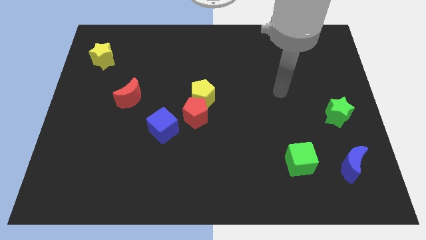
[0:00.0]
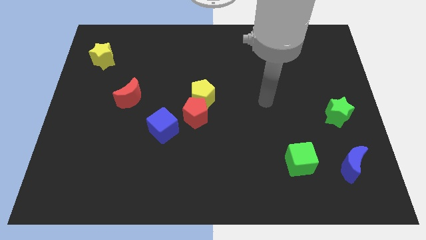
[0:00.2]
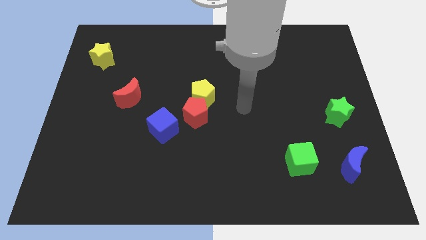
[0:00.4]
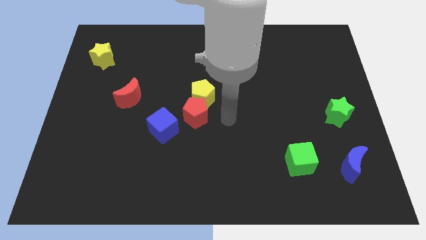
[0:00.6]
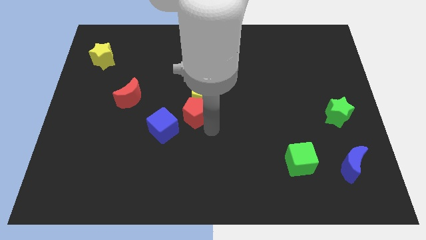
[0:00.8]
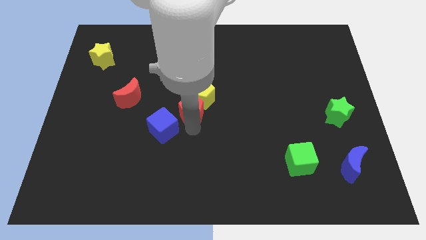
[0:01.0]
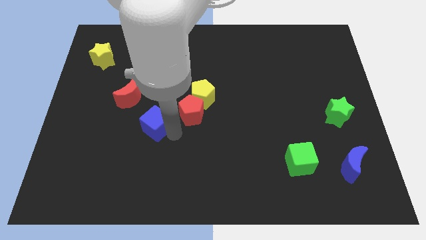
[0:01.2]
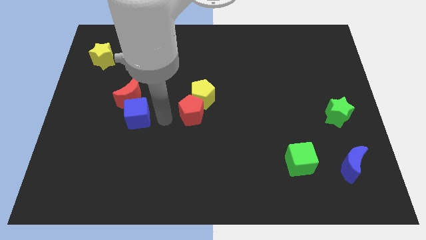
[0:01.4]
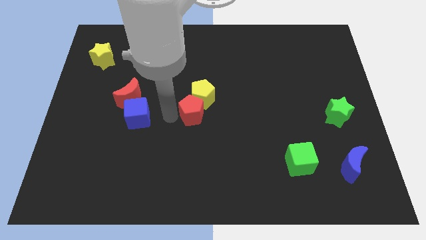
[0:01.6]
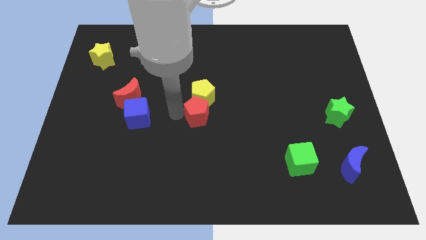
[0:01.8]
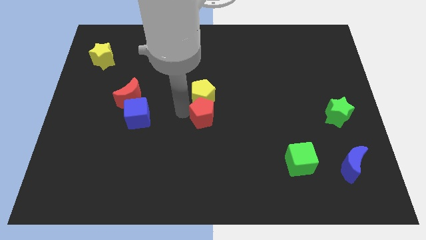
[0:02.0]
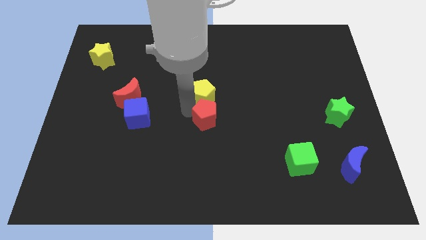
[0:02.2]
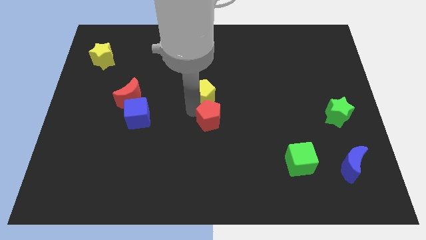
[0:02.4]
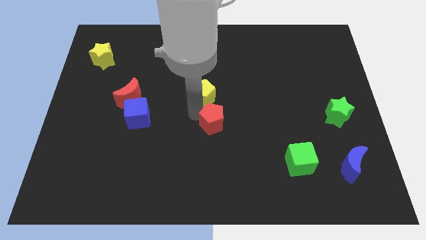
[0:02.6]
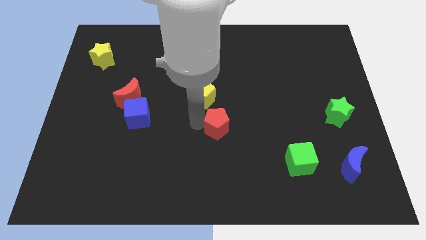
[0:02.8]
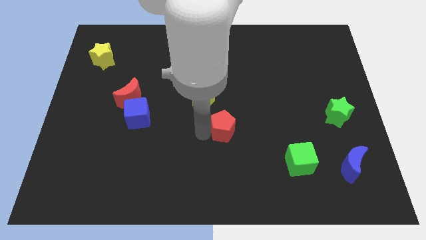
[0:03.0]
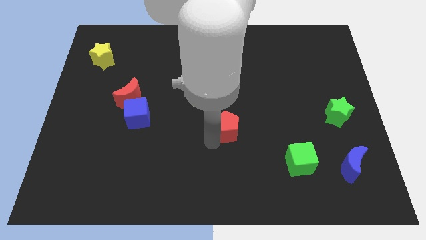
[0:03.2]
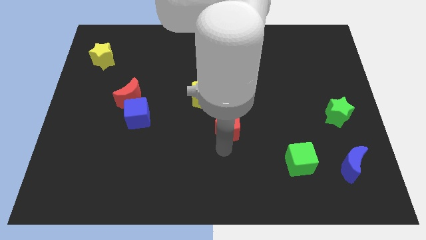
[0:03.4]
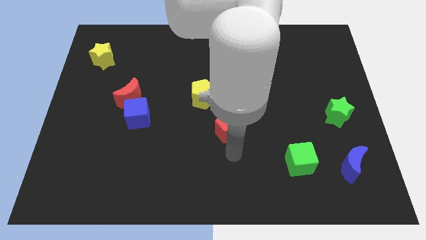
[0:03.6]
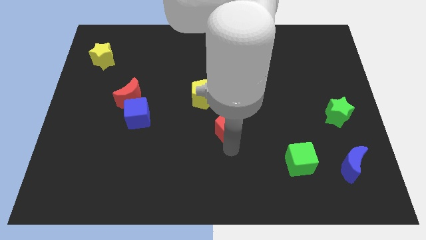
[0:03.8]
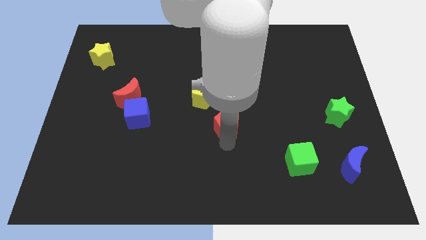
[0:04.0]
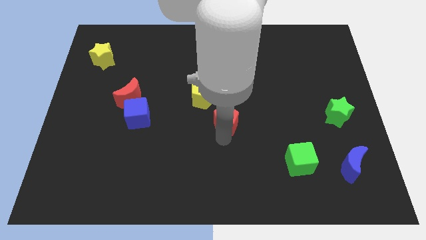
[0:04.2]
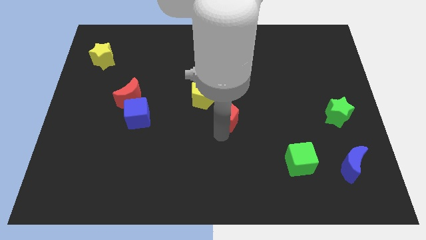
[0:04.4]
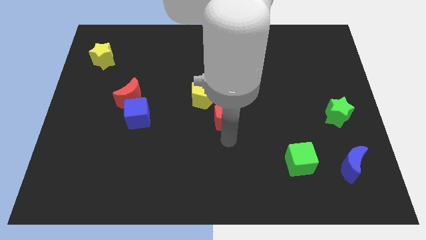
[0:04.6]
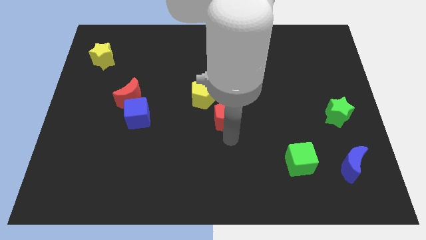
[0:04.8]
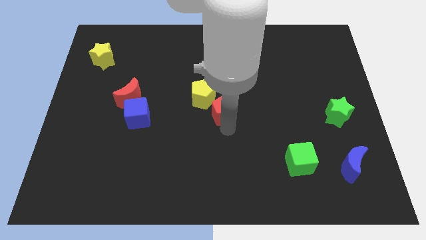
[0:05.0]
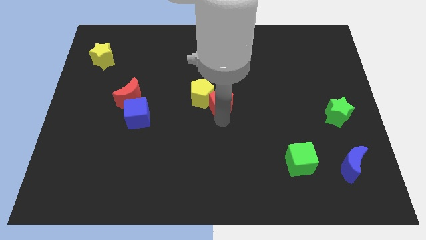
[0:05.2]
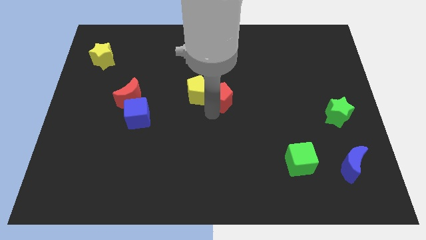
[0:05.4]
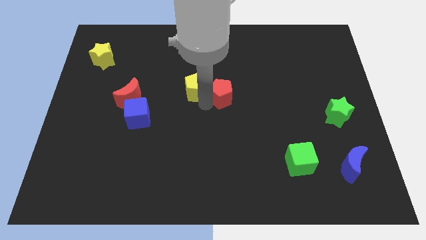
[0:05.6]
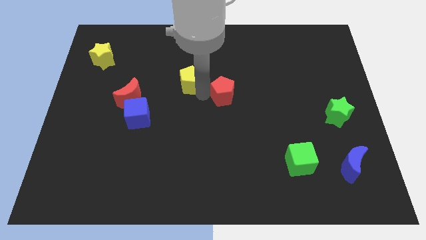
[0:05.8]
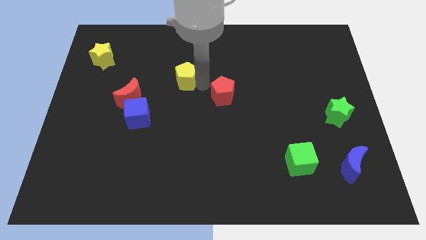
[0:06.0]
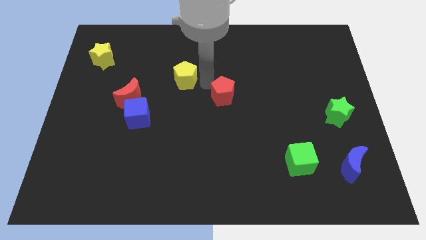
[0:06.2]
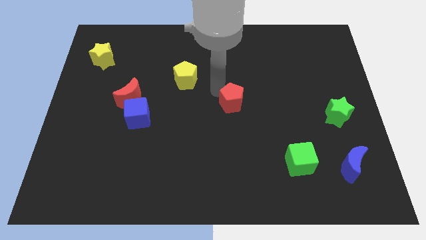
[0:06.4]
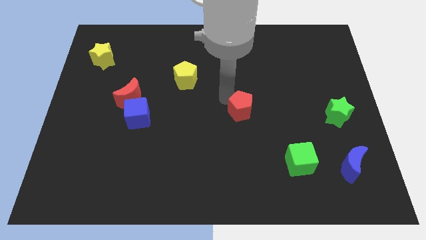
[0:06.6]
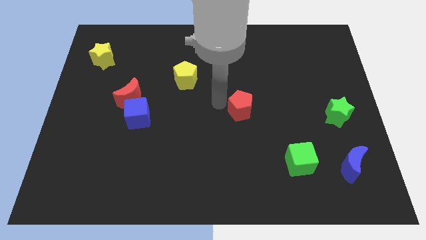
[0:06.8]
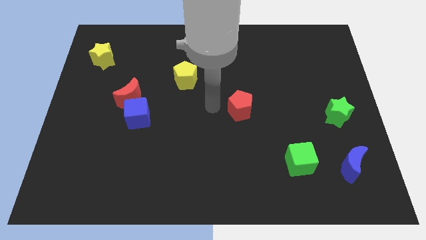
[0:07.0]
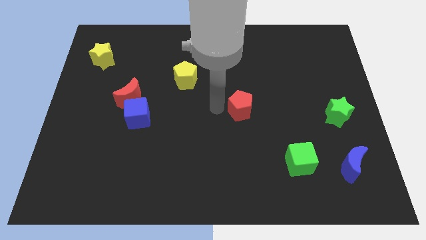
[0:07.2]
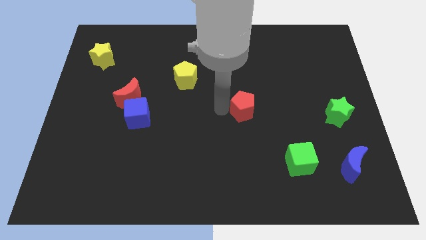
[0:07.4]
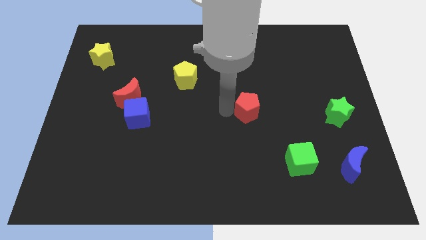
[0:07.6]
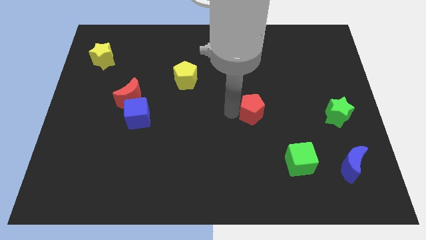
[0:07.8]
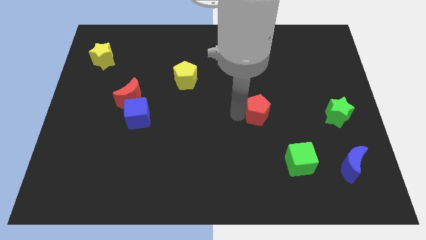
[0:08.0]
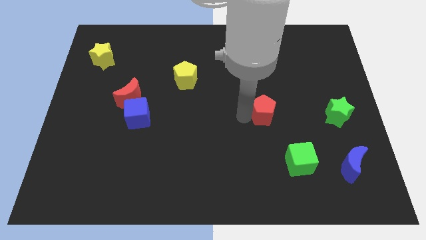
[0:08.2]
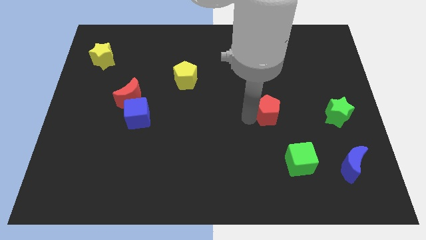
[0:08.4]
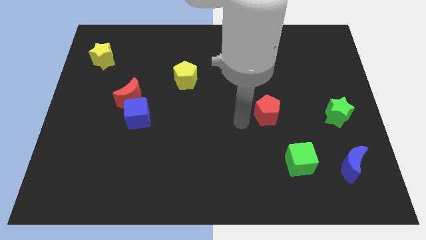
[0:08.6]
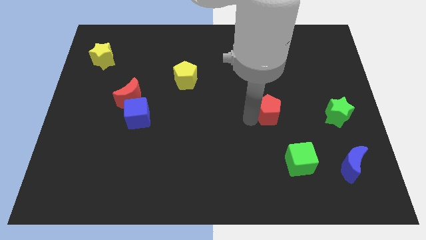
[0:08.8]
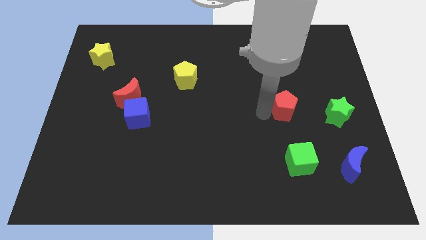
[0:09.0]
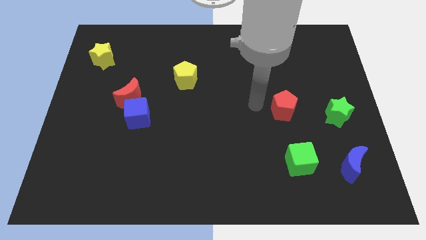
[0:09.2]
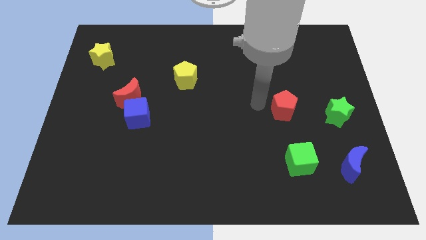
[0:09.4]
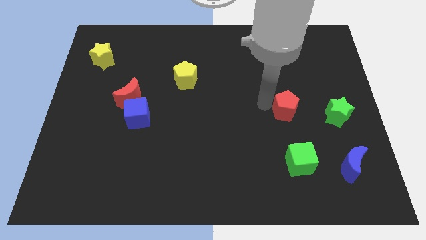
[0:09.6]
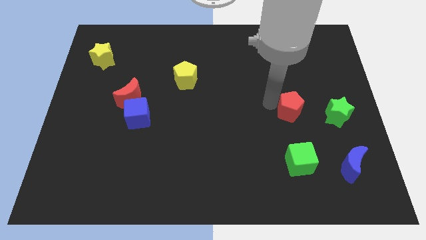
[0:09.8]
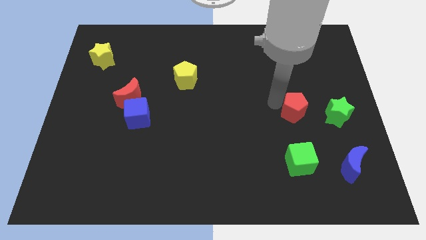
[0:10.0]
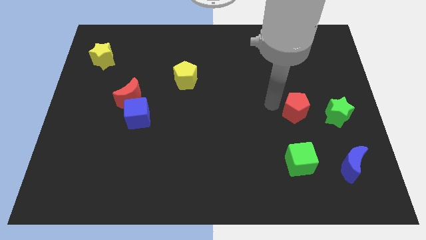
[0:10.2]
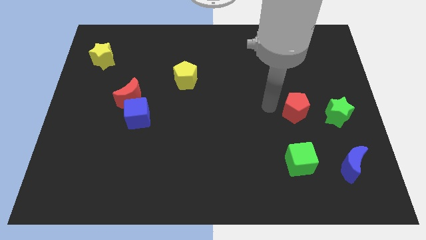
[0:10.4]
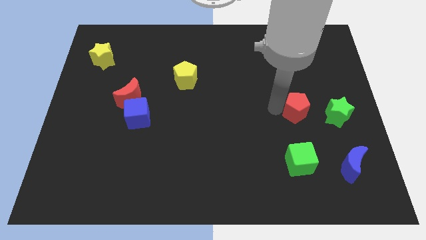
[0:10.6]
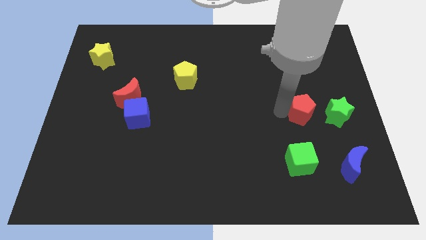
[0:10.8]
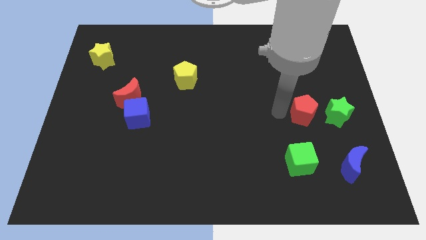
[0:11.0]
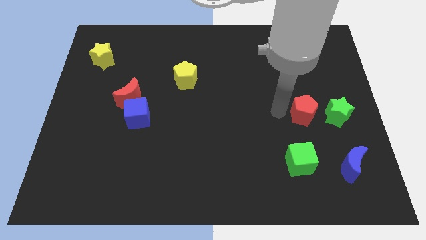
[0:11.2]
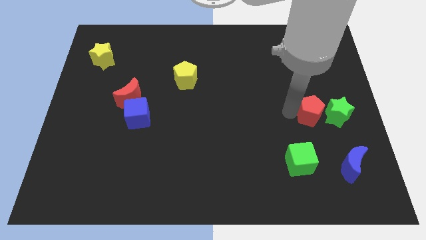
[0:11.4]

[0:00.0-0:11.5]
move the red pentagon towards the green star

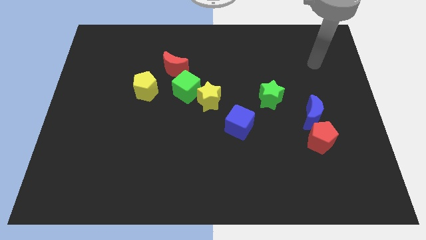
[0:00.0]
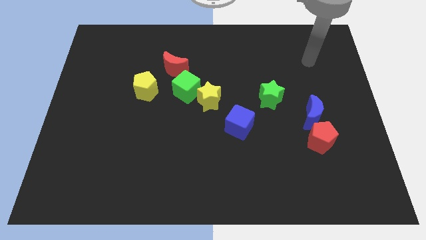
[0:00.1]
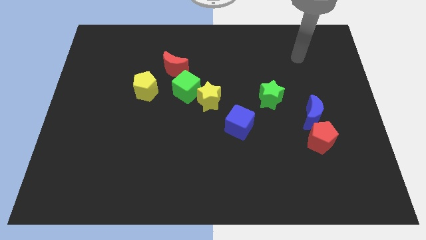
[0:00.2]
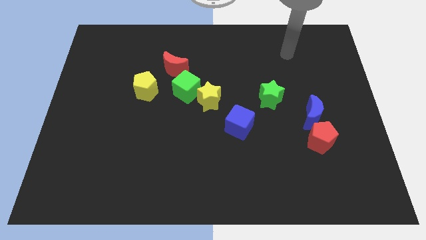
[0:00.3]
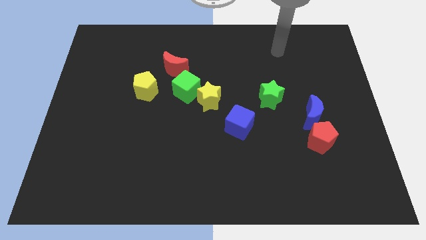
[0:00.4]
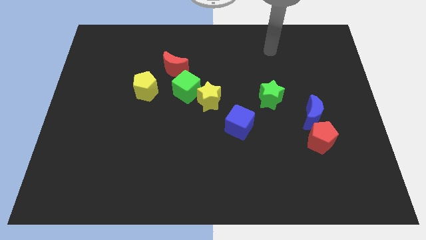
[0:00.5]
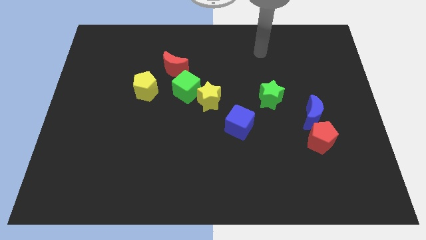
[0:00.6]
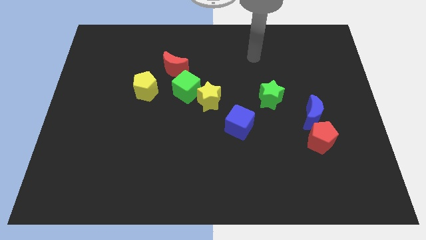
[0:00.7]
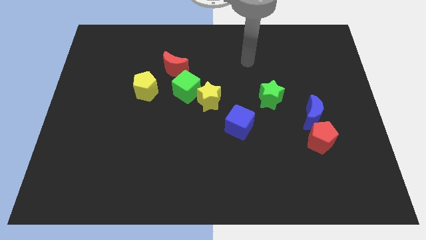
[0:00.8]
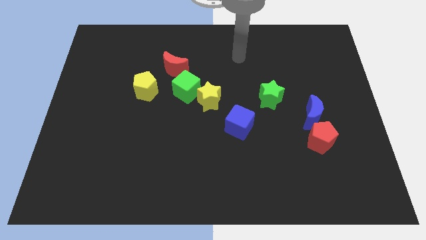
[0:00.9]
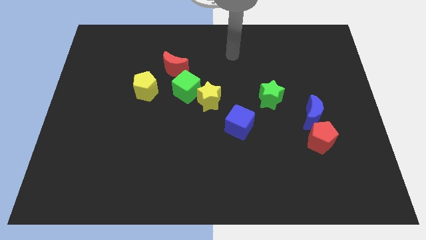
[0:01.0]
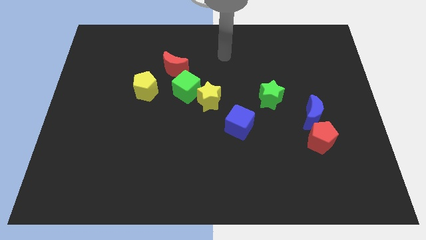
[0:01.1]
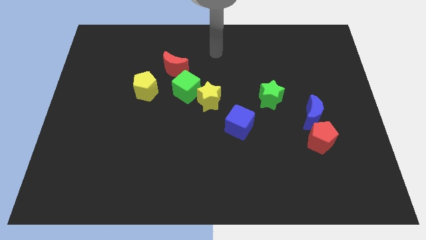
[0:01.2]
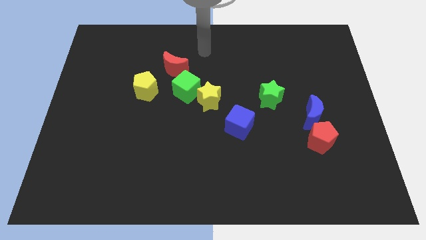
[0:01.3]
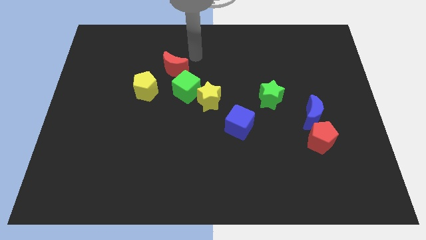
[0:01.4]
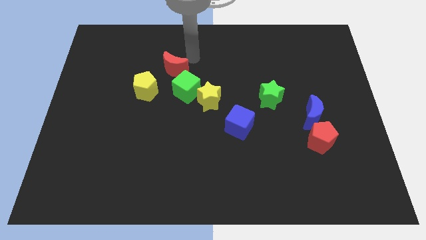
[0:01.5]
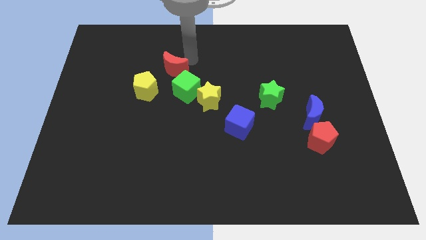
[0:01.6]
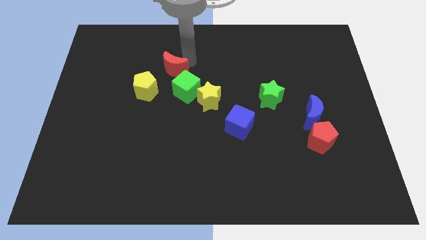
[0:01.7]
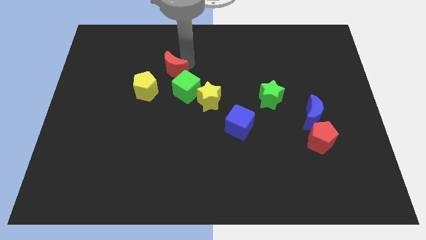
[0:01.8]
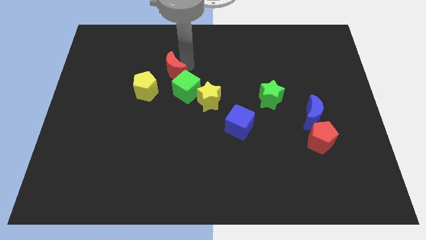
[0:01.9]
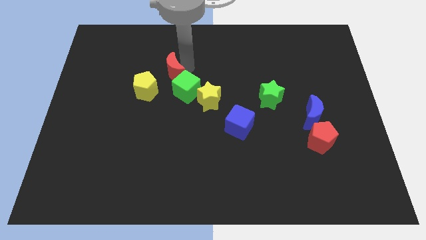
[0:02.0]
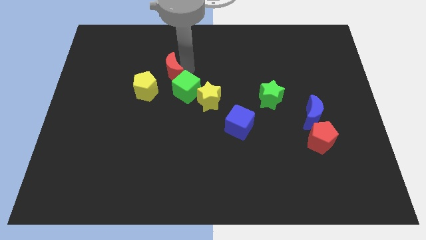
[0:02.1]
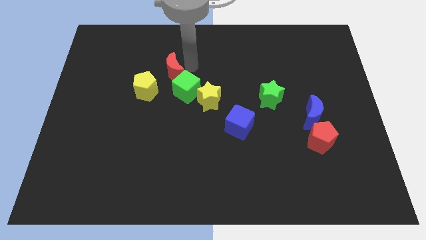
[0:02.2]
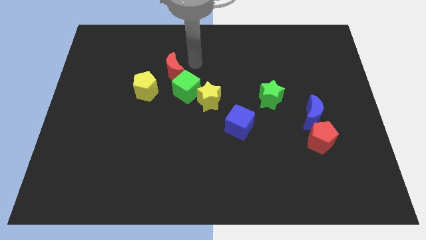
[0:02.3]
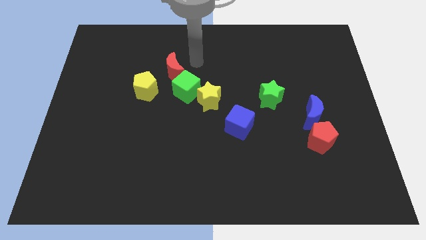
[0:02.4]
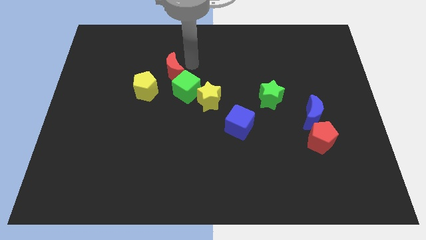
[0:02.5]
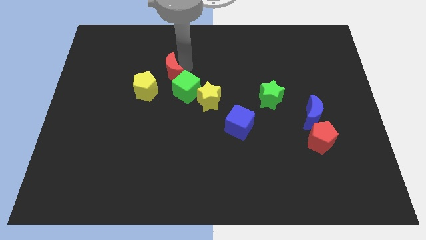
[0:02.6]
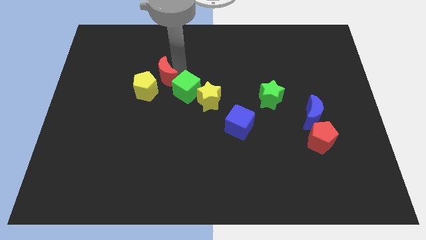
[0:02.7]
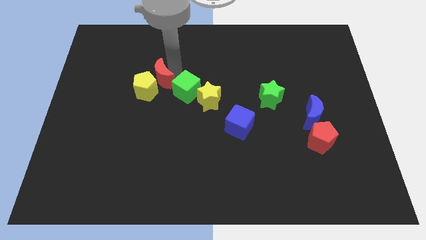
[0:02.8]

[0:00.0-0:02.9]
put the red moon next to the yellow pentagon
